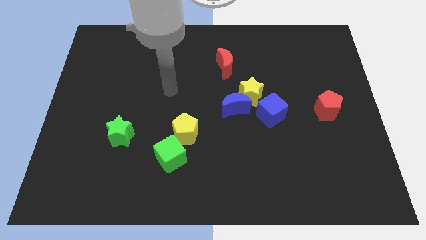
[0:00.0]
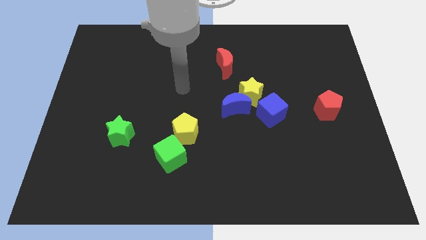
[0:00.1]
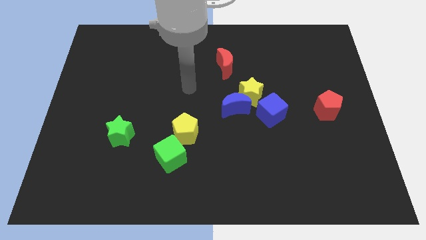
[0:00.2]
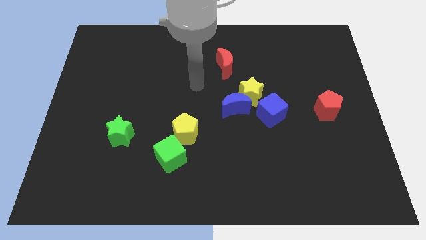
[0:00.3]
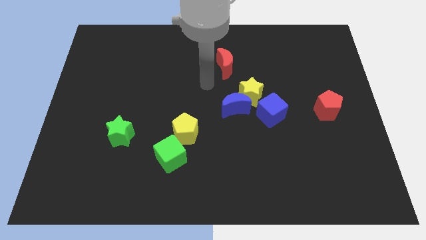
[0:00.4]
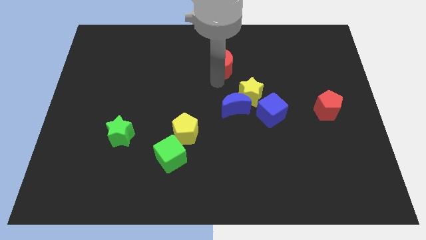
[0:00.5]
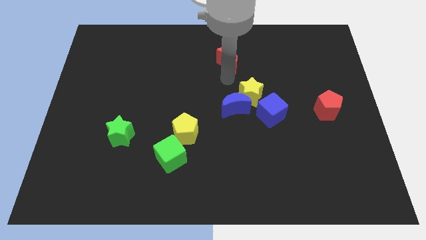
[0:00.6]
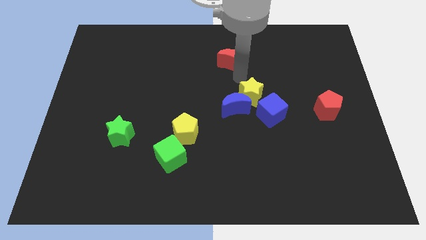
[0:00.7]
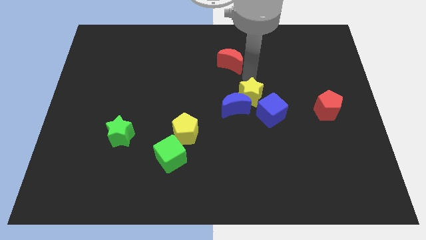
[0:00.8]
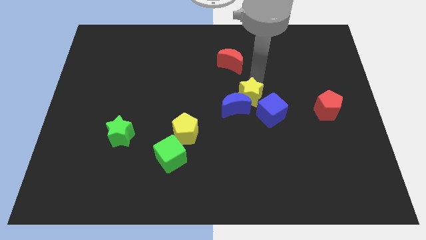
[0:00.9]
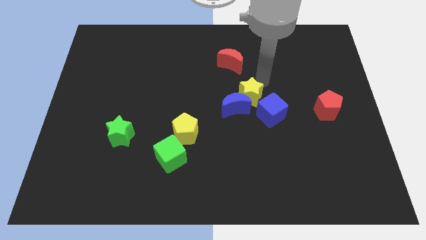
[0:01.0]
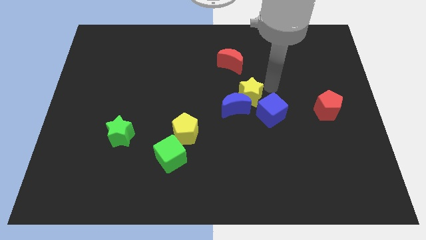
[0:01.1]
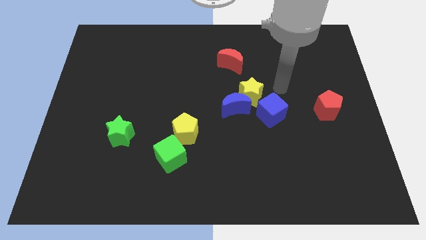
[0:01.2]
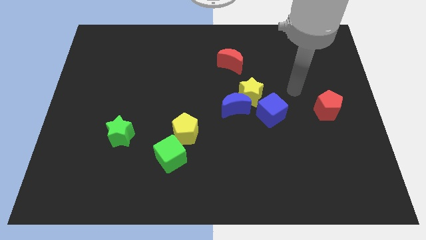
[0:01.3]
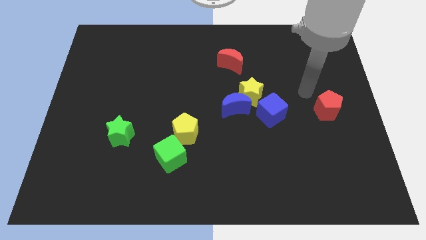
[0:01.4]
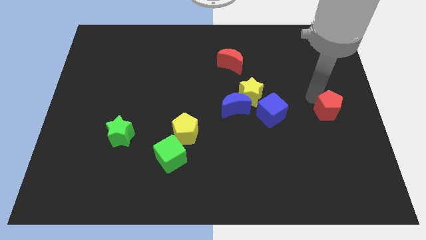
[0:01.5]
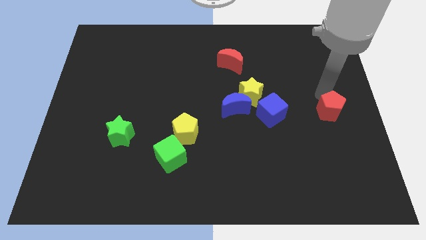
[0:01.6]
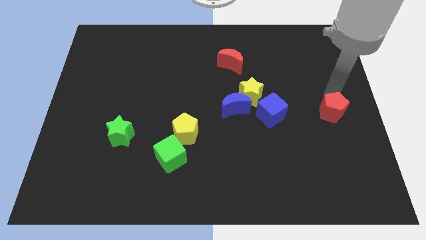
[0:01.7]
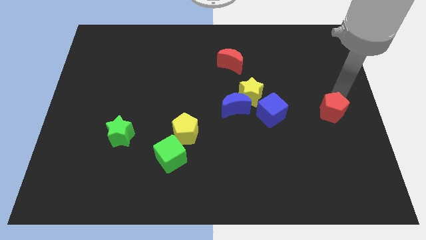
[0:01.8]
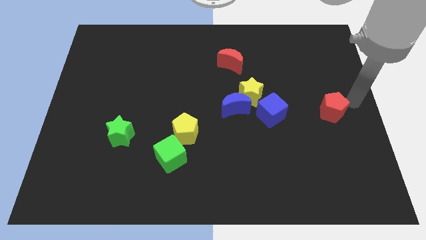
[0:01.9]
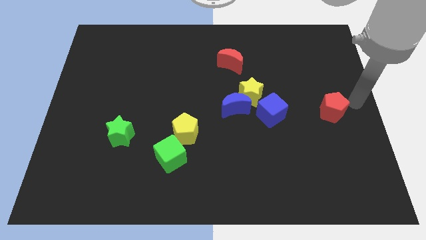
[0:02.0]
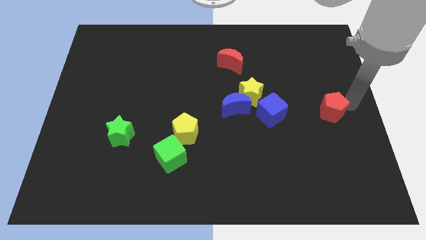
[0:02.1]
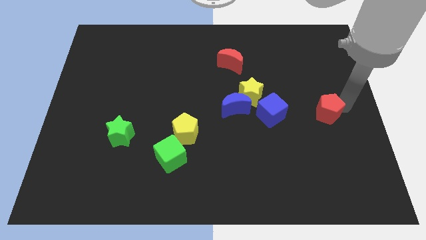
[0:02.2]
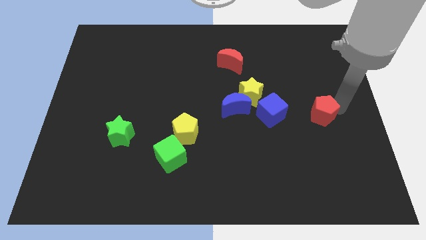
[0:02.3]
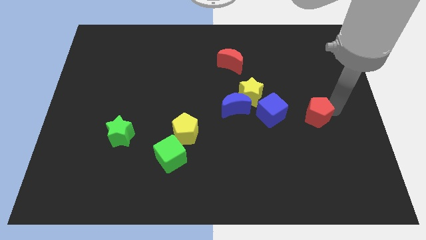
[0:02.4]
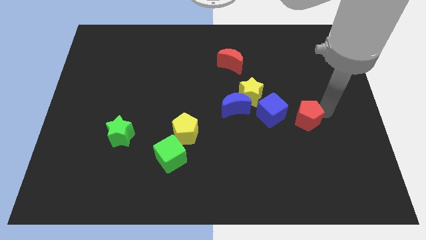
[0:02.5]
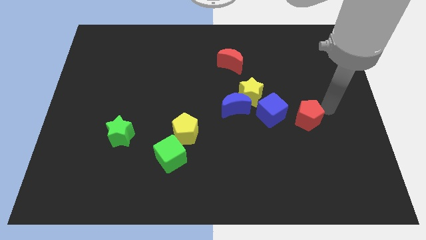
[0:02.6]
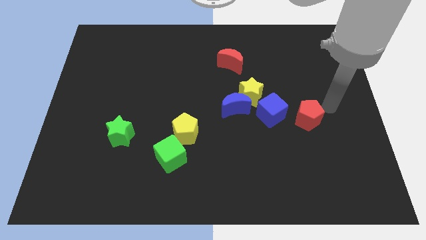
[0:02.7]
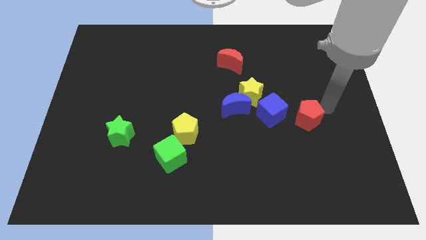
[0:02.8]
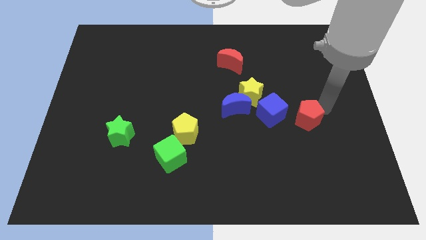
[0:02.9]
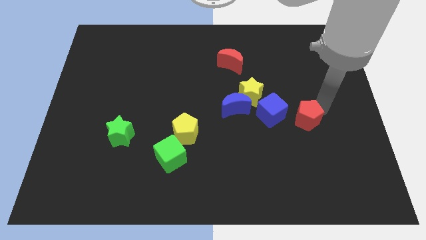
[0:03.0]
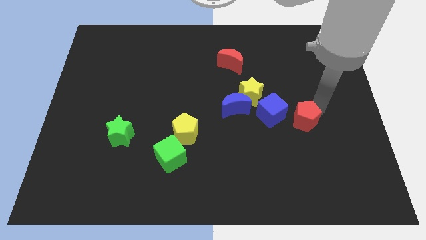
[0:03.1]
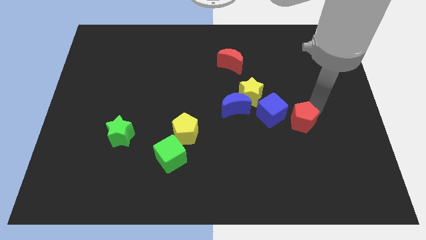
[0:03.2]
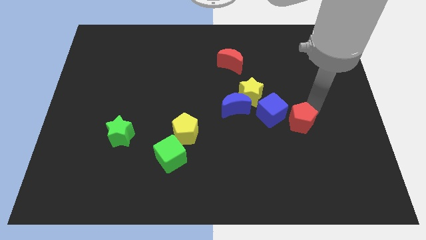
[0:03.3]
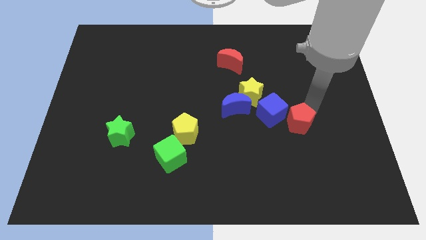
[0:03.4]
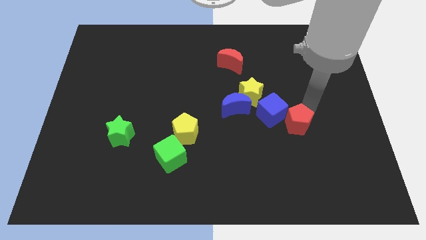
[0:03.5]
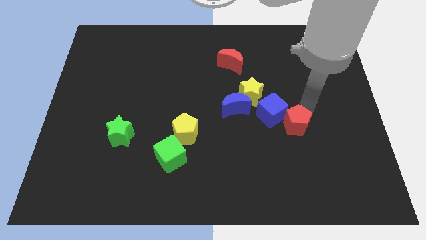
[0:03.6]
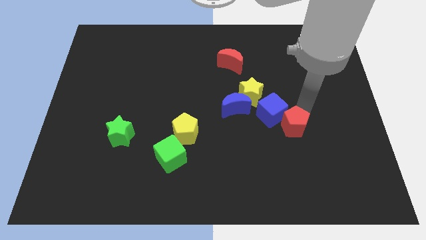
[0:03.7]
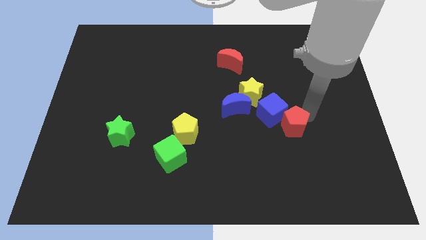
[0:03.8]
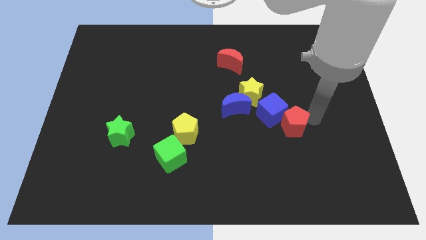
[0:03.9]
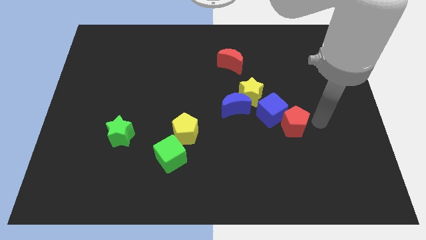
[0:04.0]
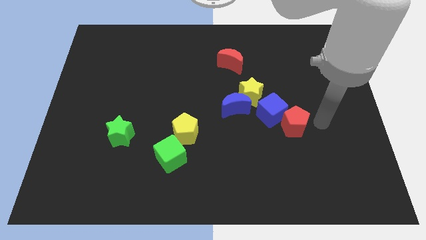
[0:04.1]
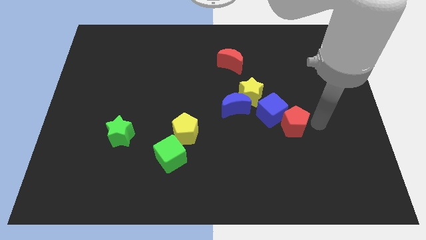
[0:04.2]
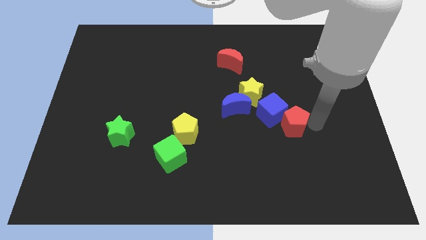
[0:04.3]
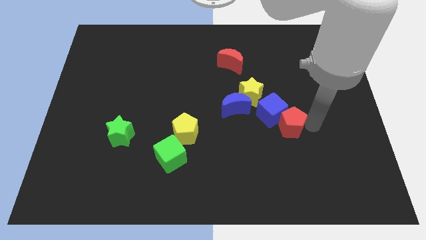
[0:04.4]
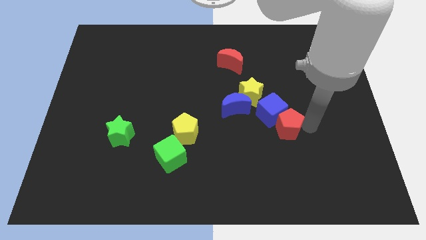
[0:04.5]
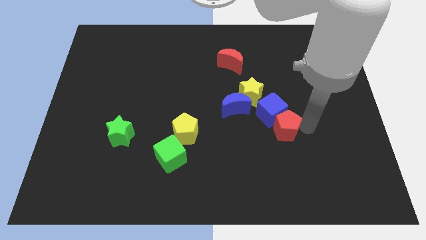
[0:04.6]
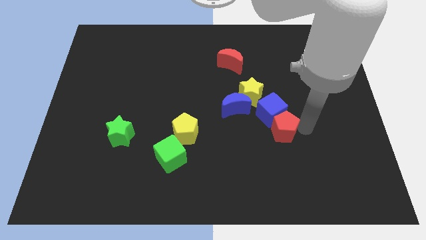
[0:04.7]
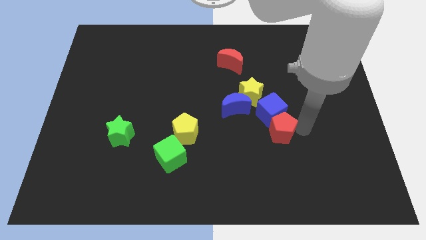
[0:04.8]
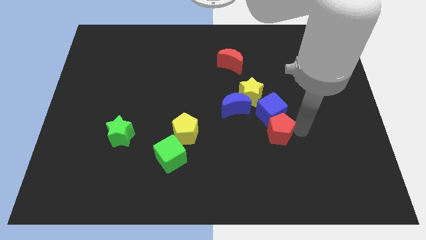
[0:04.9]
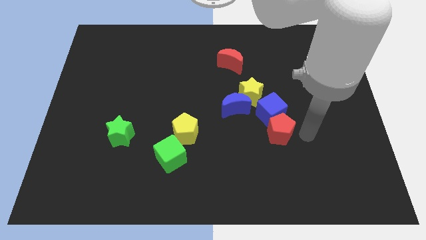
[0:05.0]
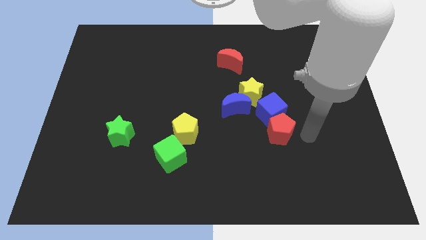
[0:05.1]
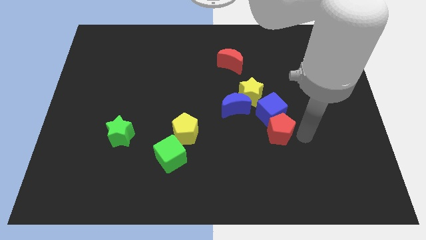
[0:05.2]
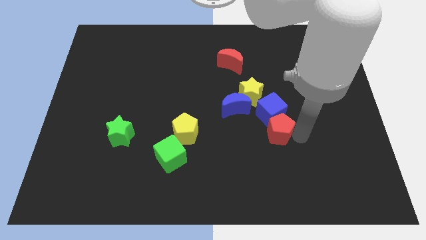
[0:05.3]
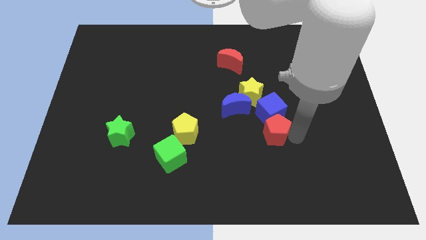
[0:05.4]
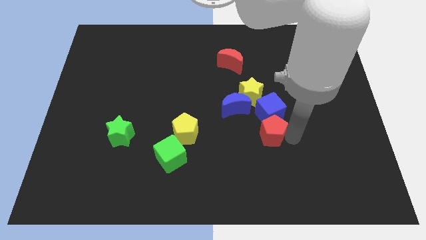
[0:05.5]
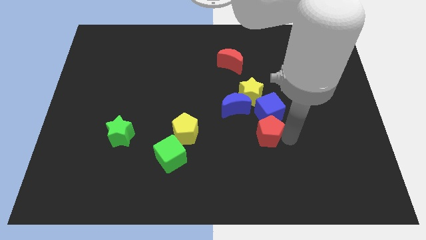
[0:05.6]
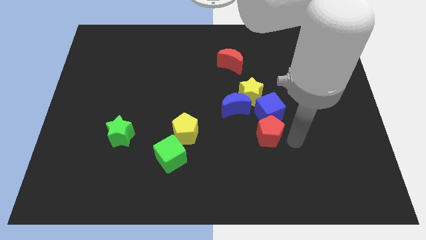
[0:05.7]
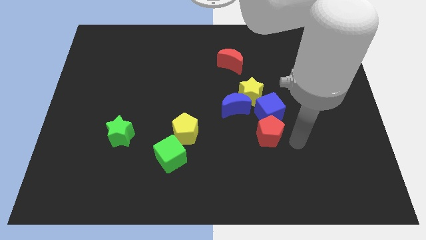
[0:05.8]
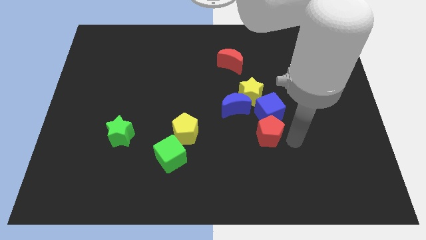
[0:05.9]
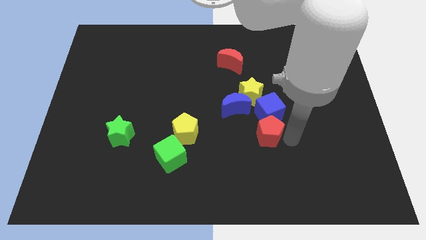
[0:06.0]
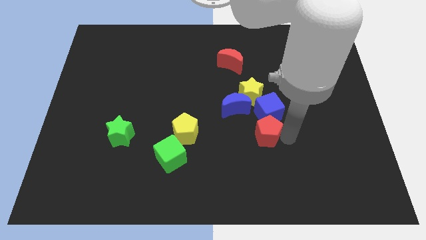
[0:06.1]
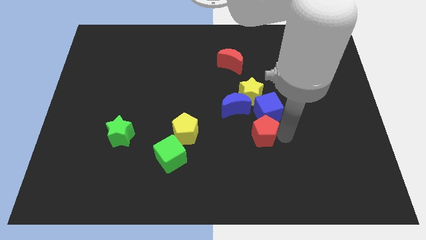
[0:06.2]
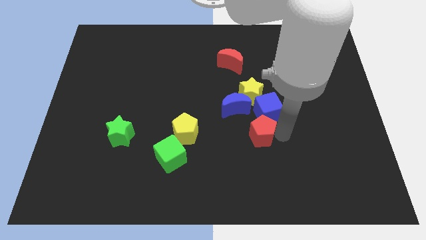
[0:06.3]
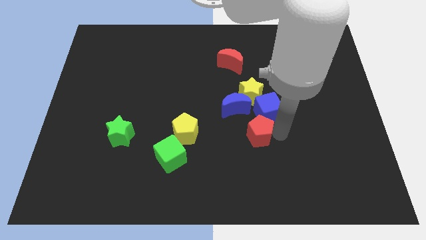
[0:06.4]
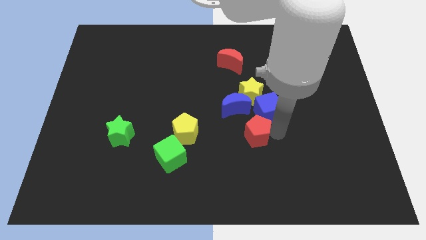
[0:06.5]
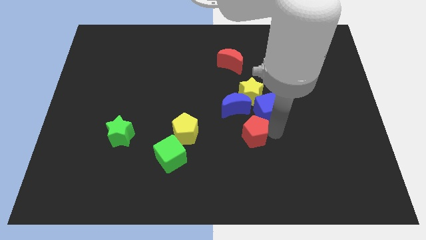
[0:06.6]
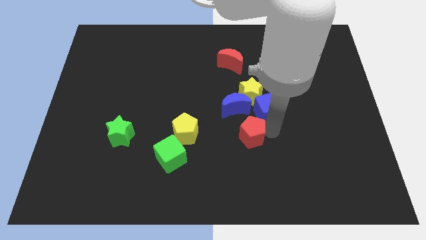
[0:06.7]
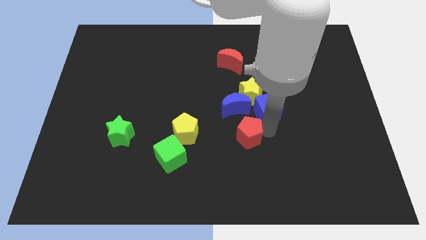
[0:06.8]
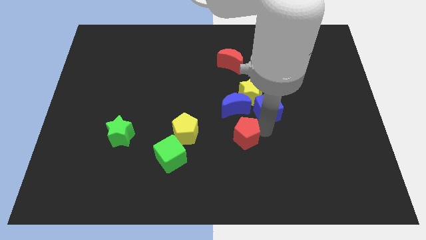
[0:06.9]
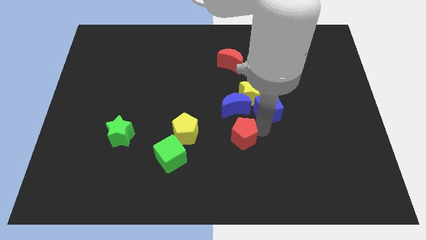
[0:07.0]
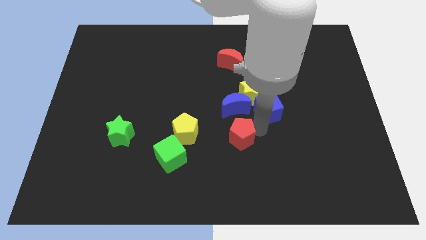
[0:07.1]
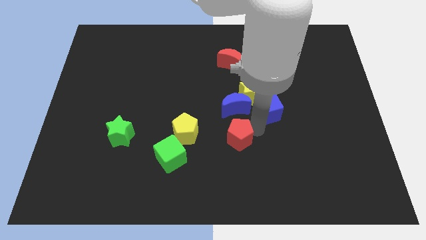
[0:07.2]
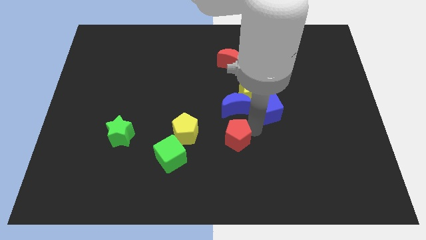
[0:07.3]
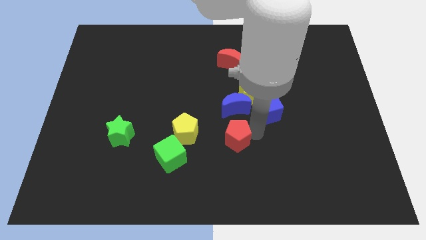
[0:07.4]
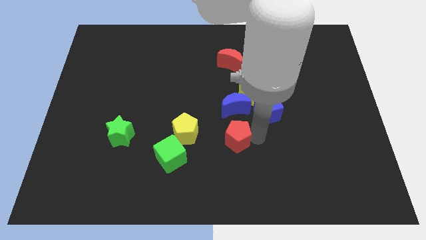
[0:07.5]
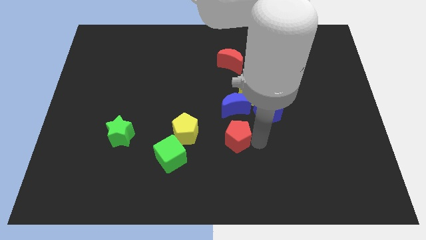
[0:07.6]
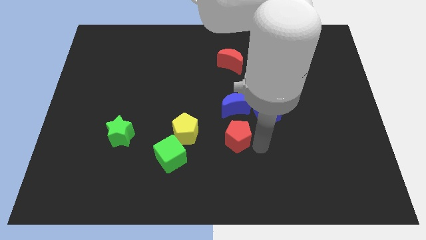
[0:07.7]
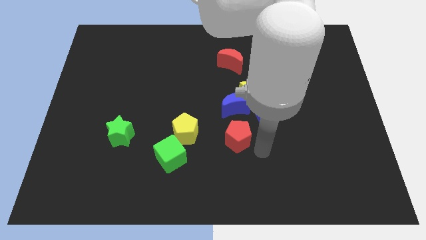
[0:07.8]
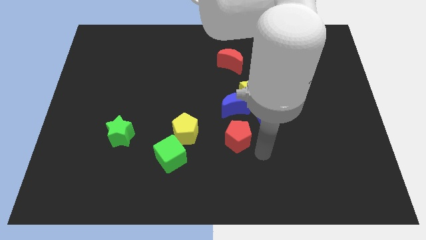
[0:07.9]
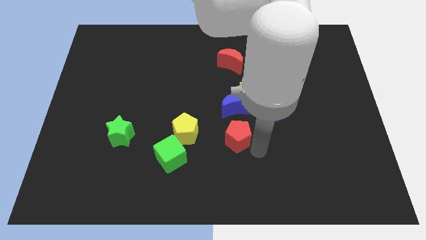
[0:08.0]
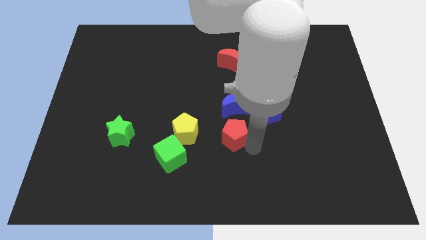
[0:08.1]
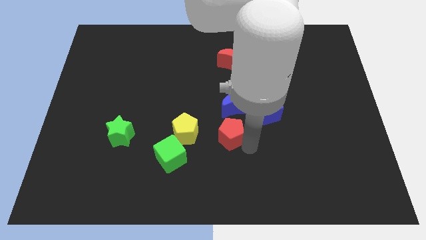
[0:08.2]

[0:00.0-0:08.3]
push the red pentagon to the left

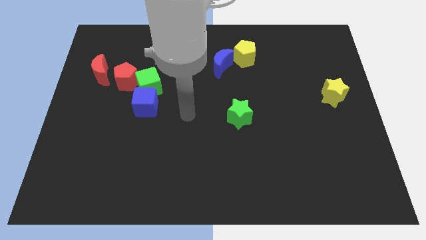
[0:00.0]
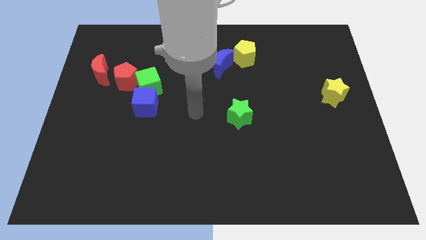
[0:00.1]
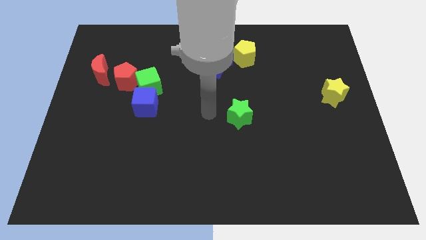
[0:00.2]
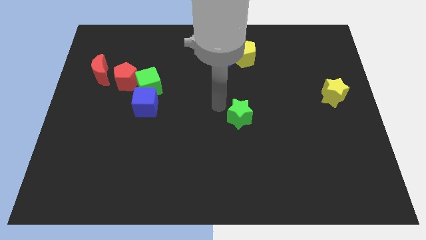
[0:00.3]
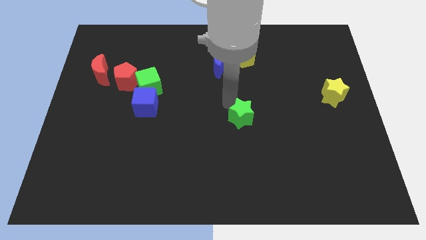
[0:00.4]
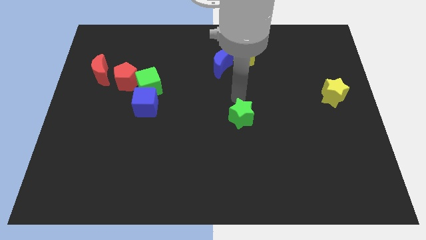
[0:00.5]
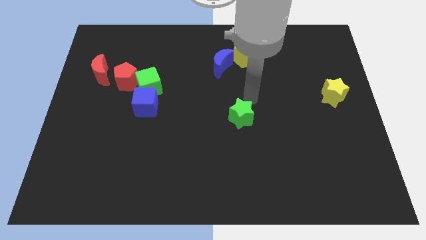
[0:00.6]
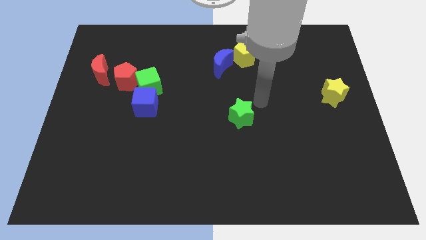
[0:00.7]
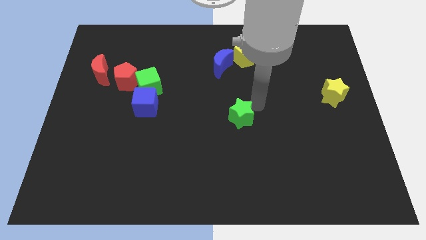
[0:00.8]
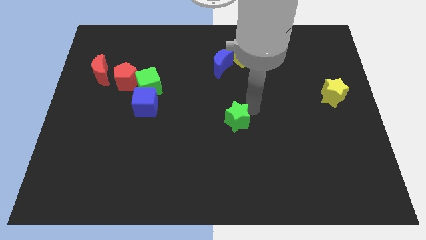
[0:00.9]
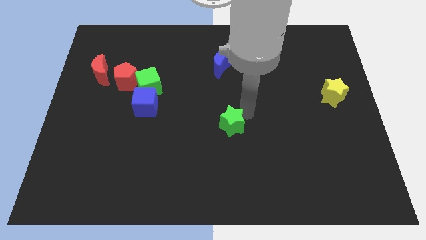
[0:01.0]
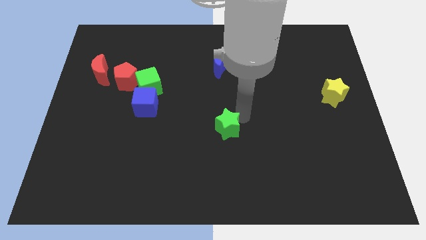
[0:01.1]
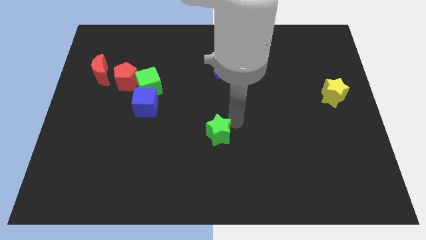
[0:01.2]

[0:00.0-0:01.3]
move the green star somewhat downwards and then left
